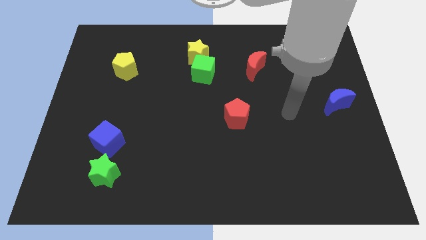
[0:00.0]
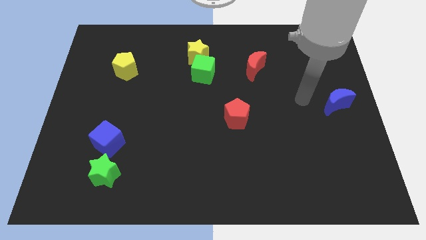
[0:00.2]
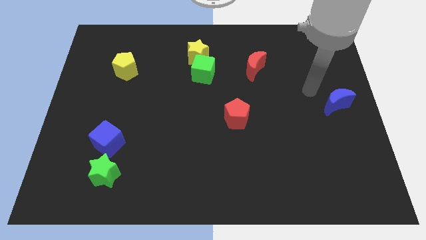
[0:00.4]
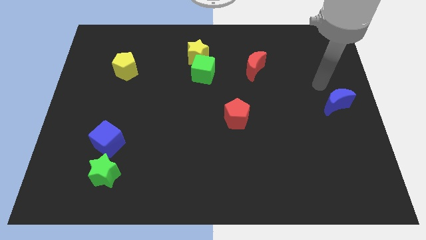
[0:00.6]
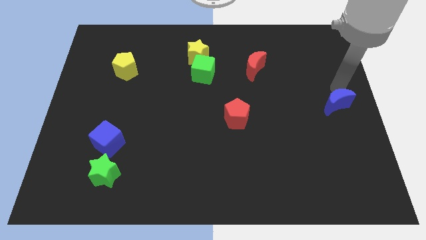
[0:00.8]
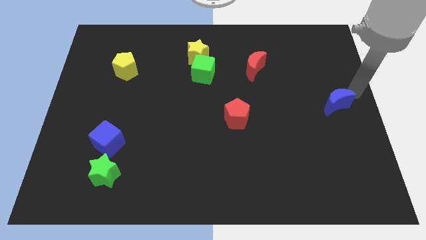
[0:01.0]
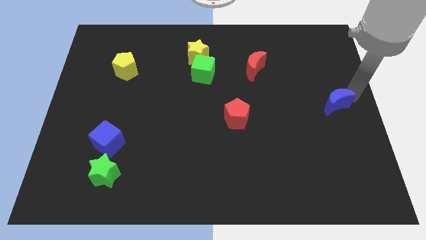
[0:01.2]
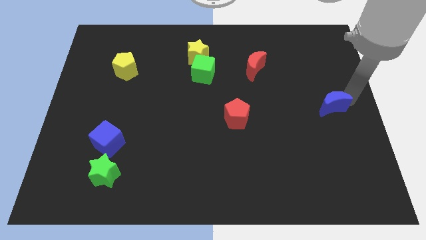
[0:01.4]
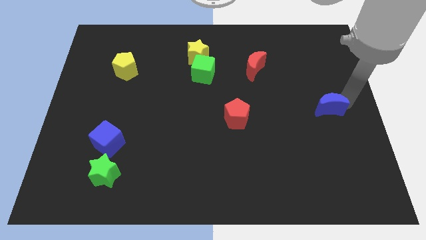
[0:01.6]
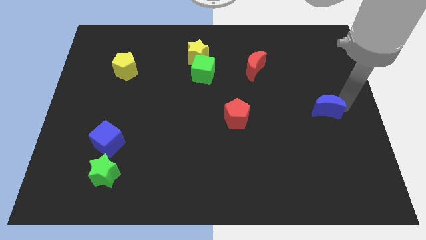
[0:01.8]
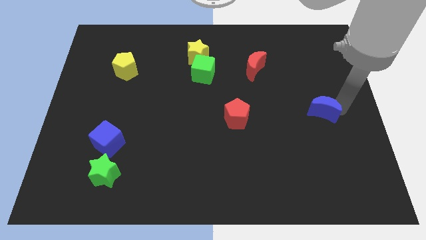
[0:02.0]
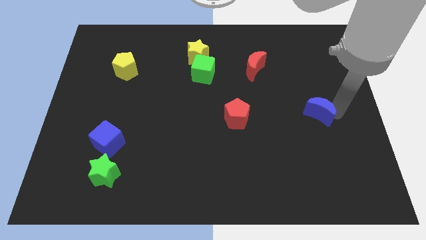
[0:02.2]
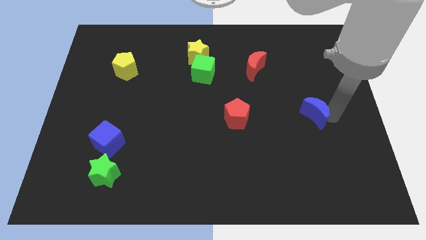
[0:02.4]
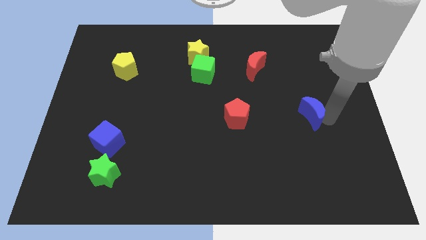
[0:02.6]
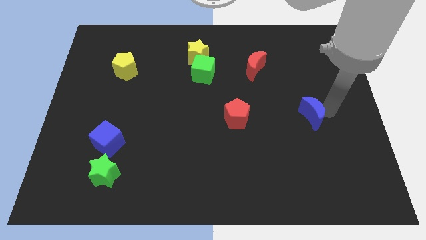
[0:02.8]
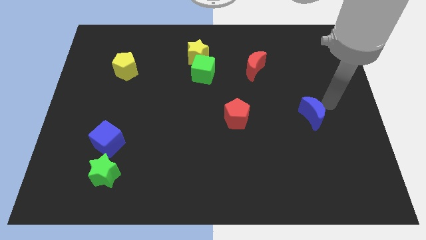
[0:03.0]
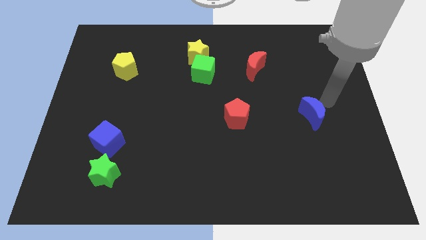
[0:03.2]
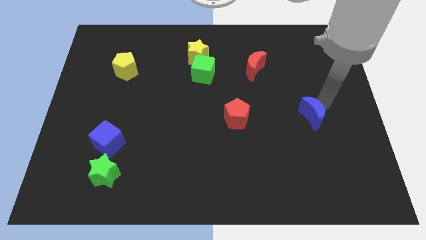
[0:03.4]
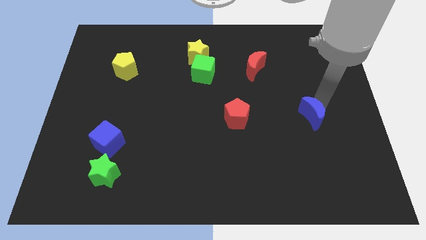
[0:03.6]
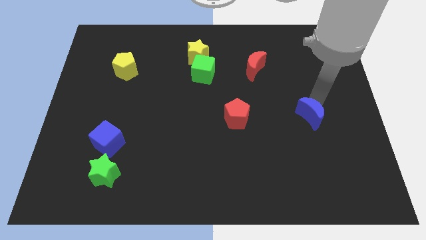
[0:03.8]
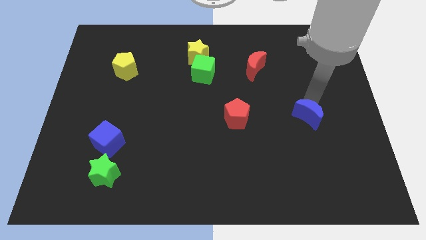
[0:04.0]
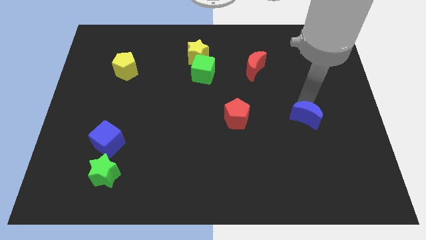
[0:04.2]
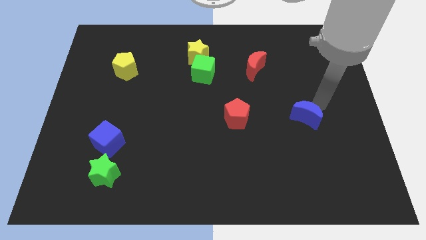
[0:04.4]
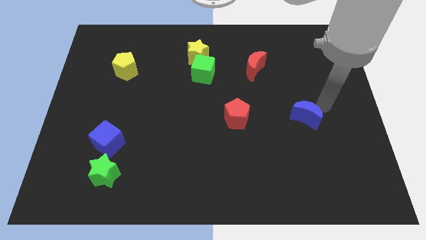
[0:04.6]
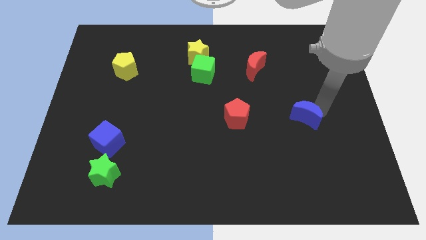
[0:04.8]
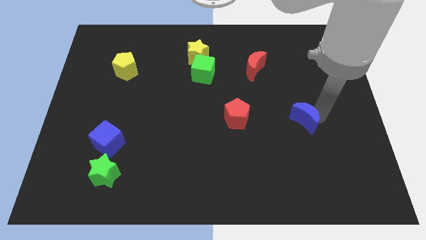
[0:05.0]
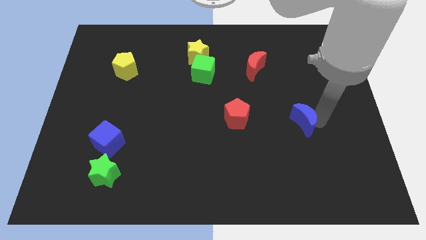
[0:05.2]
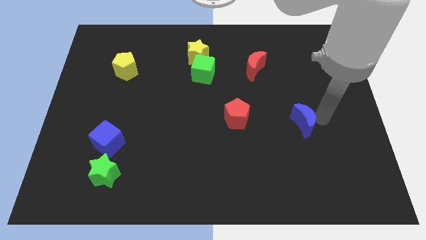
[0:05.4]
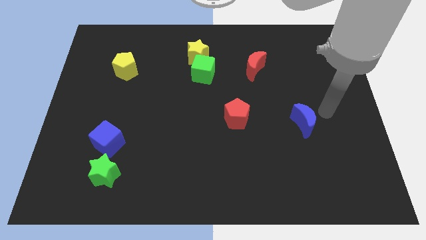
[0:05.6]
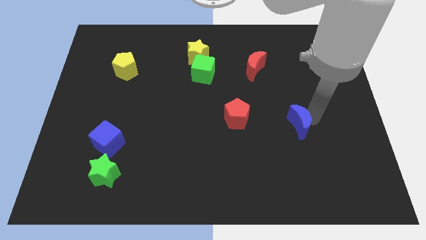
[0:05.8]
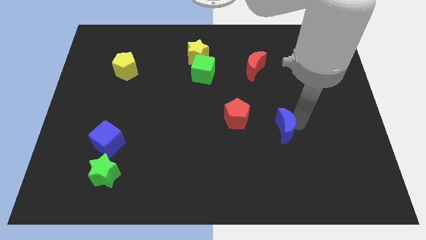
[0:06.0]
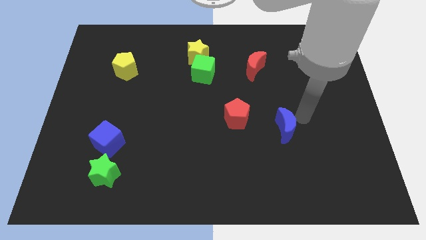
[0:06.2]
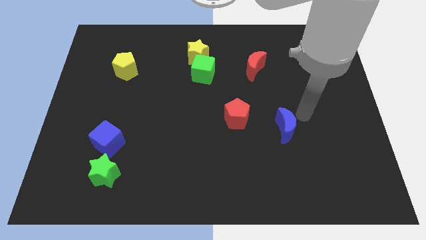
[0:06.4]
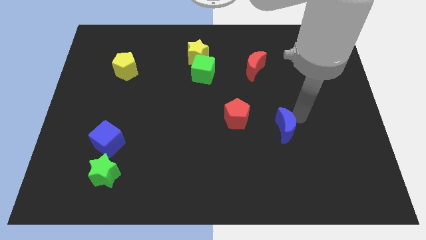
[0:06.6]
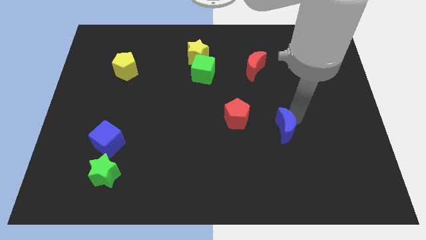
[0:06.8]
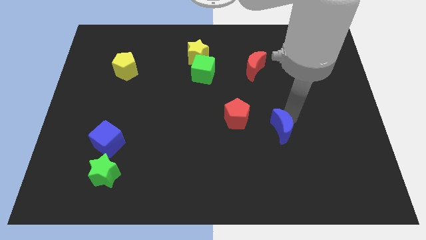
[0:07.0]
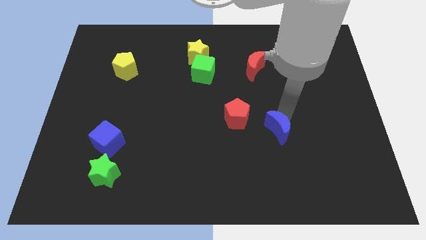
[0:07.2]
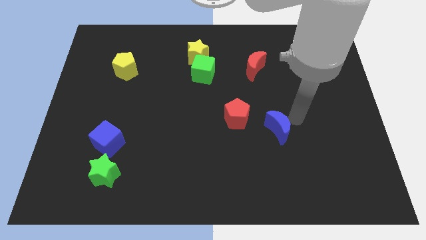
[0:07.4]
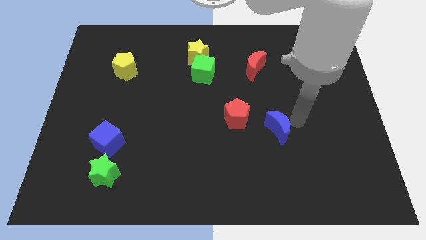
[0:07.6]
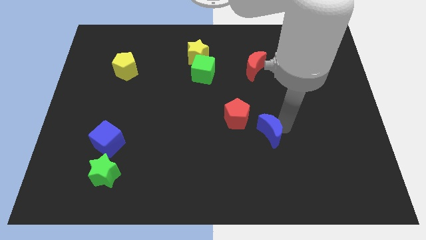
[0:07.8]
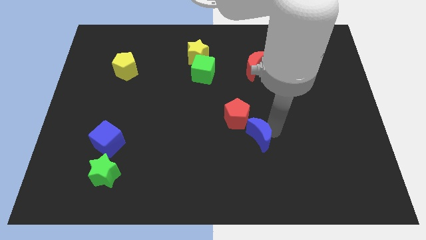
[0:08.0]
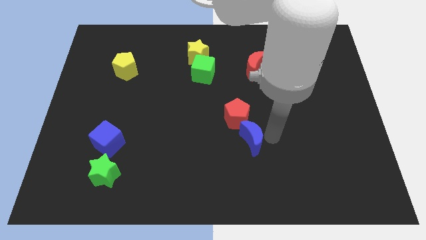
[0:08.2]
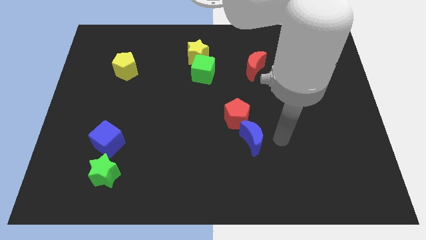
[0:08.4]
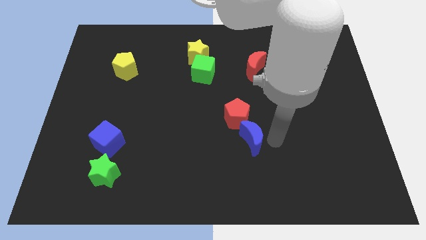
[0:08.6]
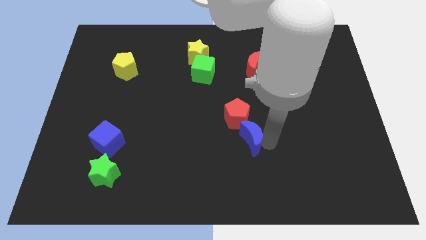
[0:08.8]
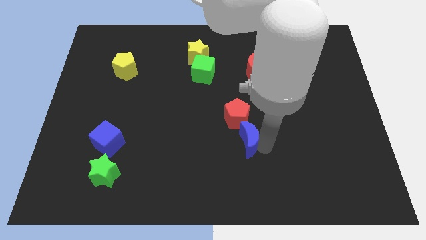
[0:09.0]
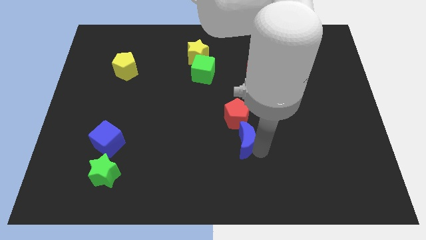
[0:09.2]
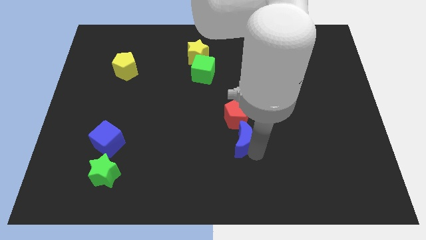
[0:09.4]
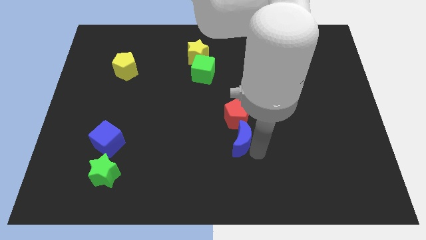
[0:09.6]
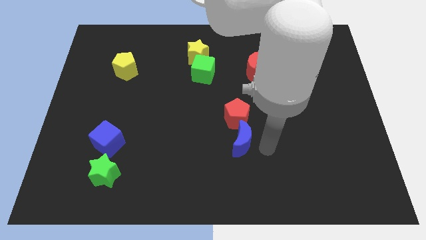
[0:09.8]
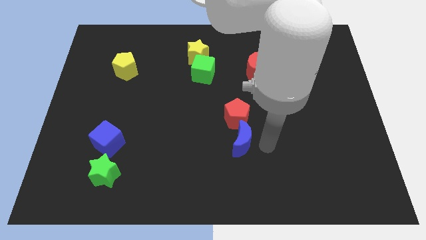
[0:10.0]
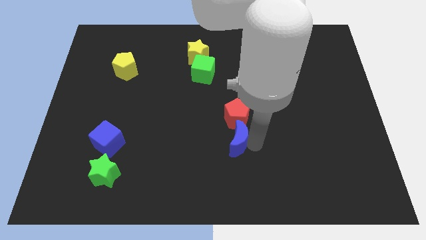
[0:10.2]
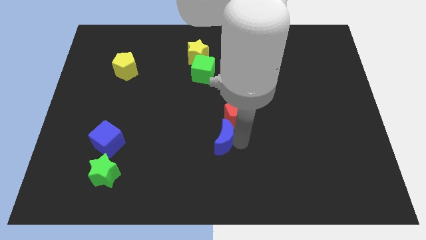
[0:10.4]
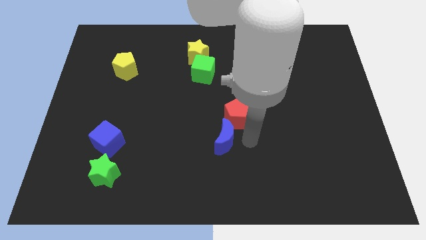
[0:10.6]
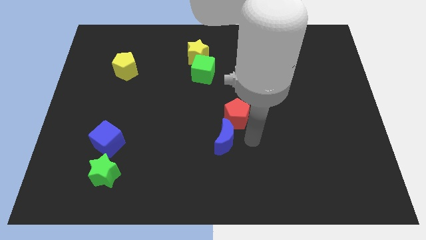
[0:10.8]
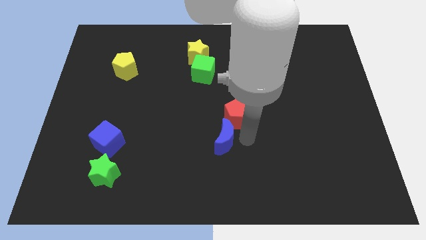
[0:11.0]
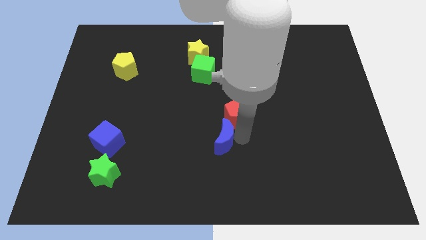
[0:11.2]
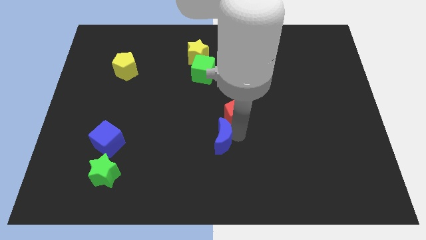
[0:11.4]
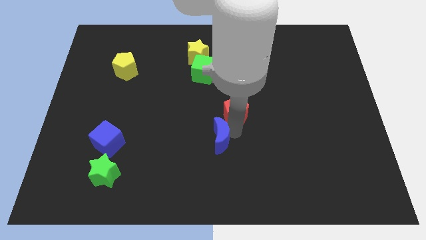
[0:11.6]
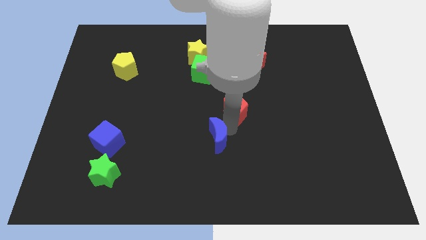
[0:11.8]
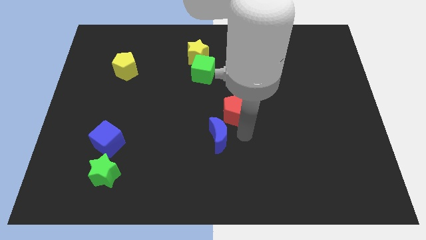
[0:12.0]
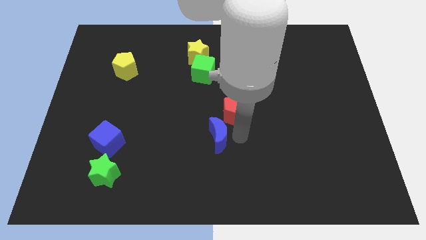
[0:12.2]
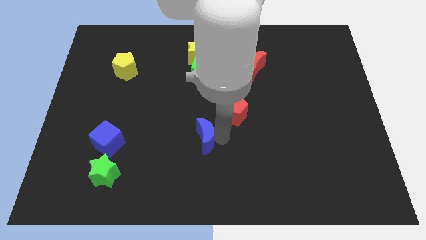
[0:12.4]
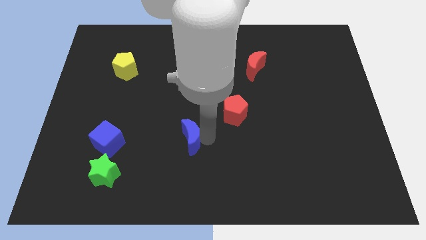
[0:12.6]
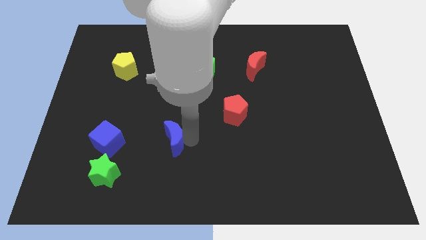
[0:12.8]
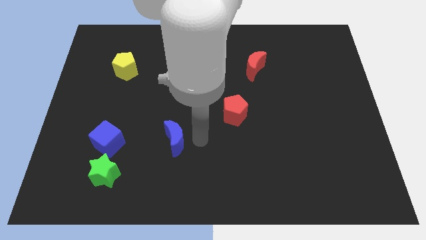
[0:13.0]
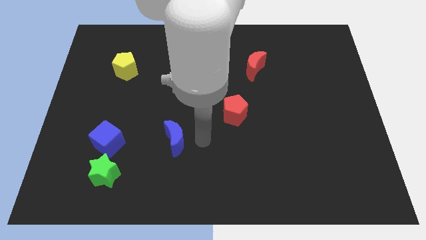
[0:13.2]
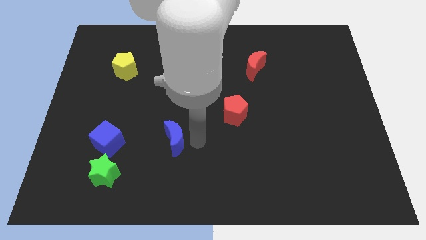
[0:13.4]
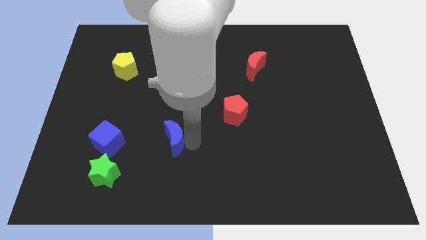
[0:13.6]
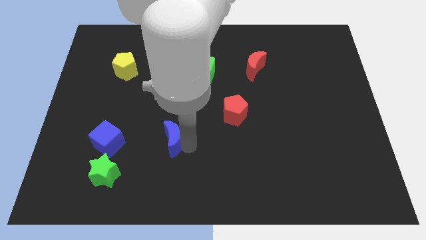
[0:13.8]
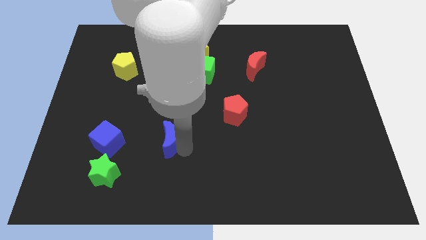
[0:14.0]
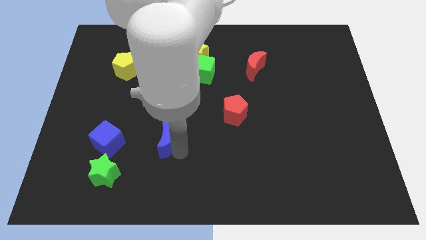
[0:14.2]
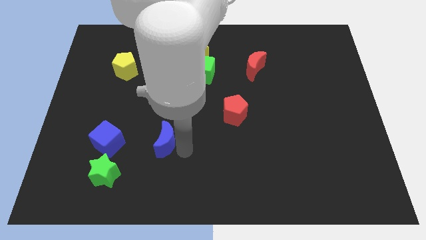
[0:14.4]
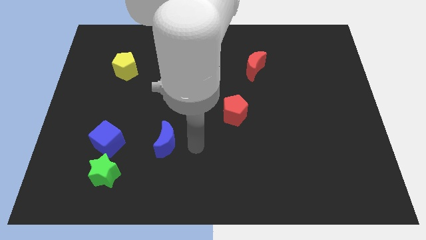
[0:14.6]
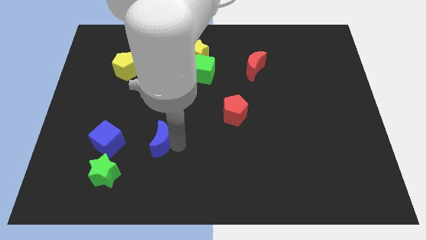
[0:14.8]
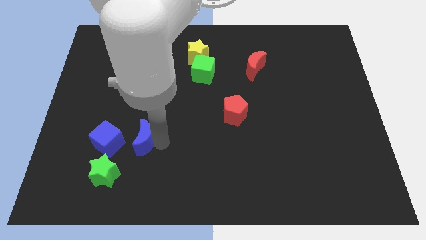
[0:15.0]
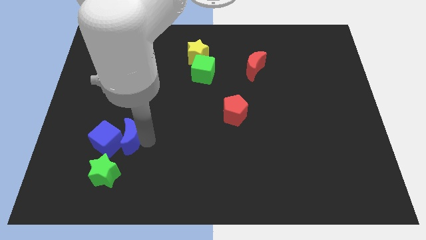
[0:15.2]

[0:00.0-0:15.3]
put the blue moon next to the blue cube
